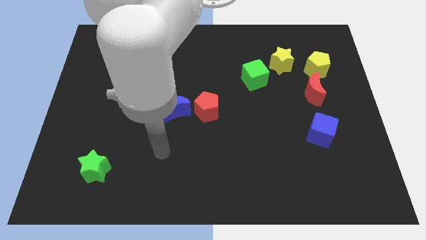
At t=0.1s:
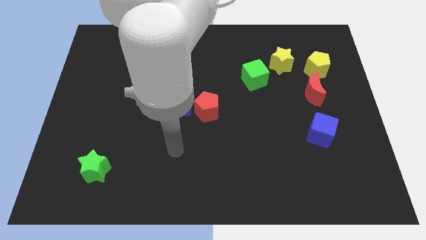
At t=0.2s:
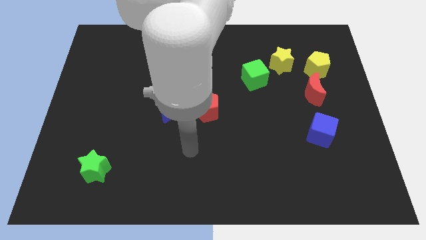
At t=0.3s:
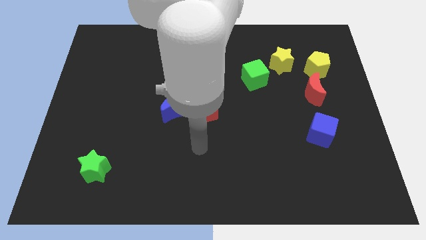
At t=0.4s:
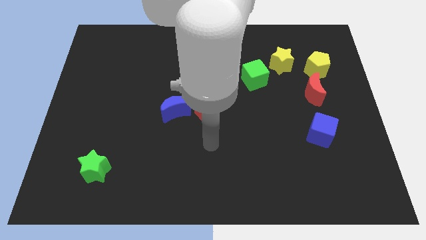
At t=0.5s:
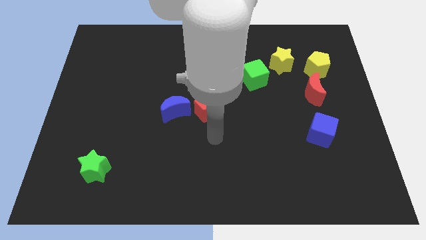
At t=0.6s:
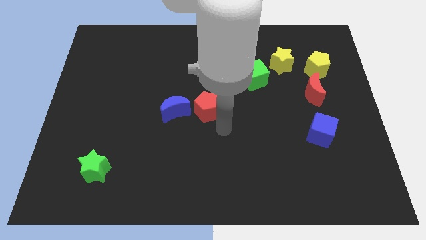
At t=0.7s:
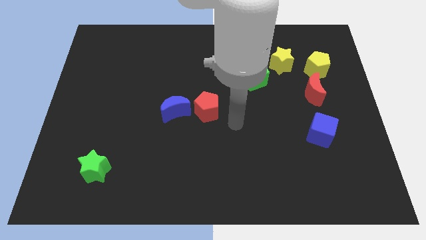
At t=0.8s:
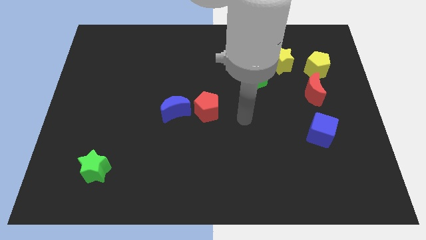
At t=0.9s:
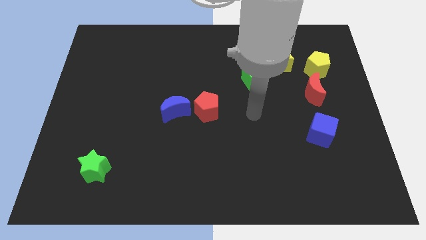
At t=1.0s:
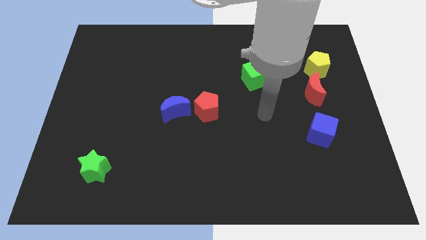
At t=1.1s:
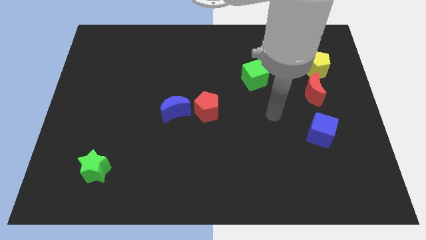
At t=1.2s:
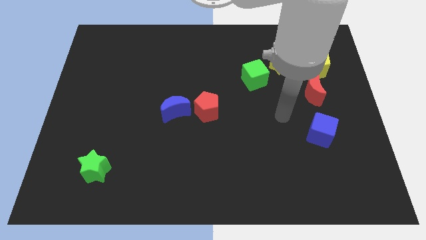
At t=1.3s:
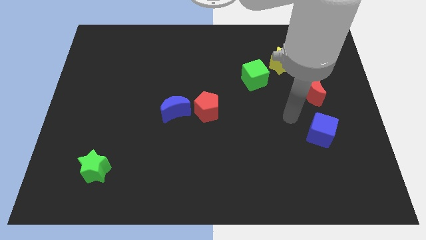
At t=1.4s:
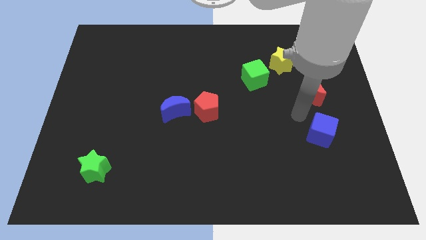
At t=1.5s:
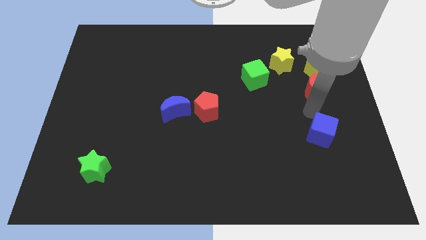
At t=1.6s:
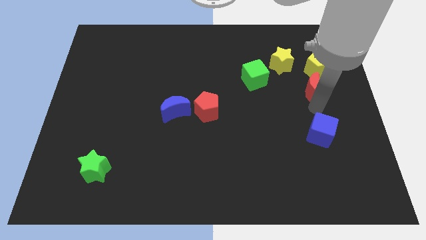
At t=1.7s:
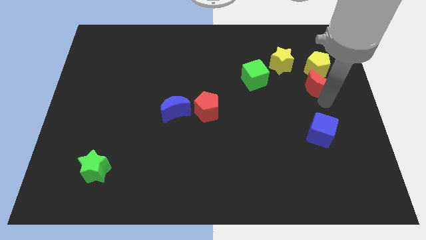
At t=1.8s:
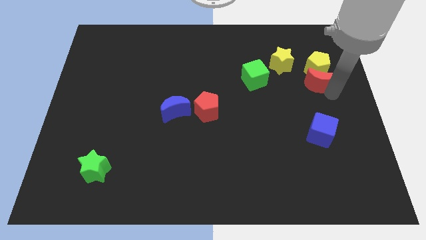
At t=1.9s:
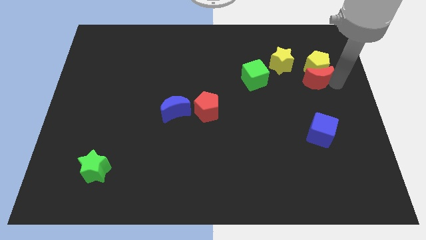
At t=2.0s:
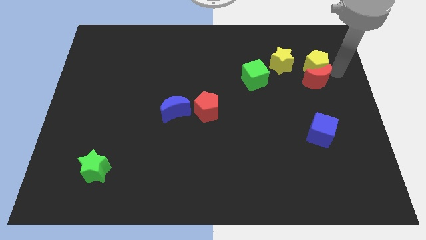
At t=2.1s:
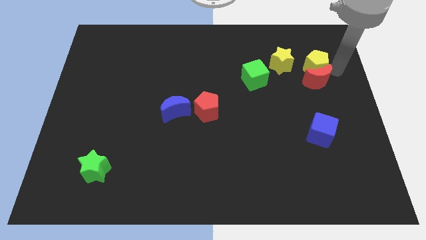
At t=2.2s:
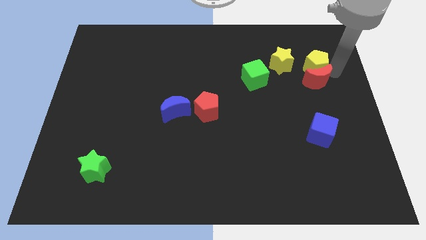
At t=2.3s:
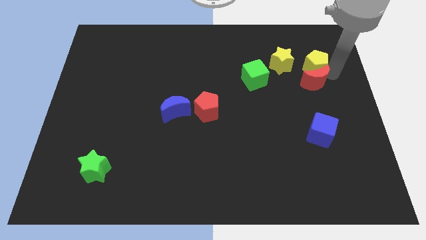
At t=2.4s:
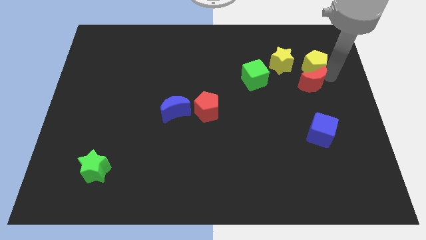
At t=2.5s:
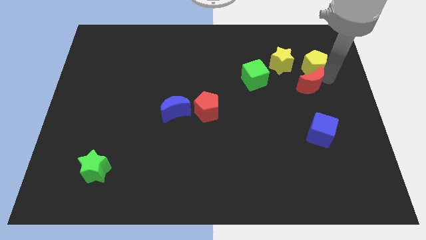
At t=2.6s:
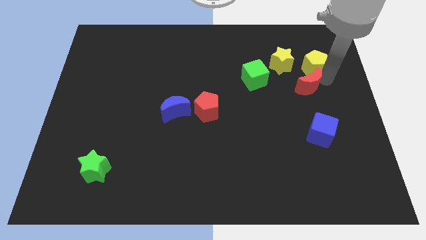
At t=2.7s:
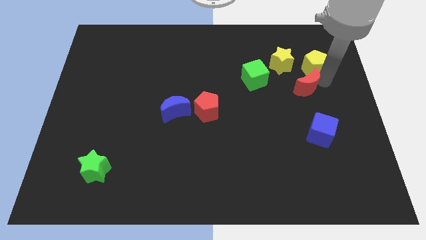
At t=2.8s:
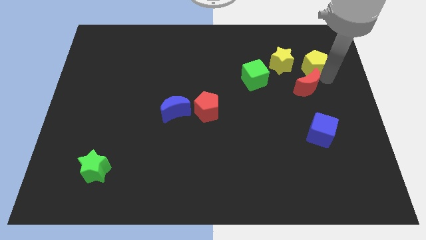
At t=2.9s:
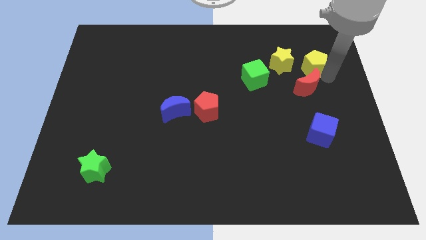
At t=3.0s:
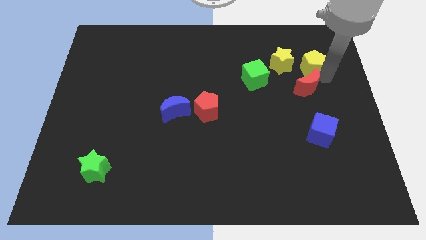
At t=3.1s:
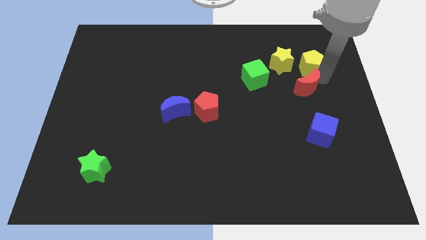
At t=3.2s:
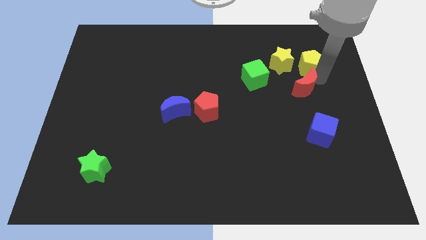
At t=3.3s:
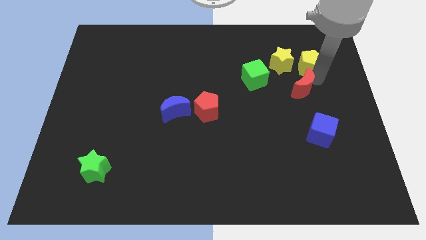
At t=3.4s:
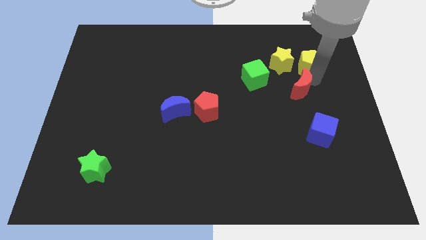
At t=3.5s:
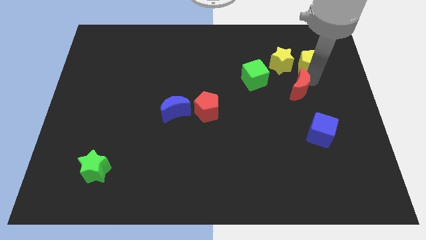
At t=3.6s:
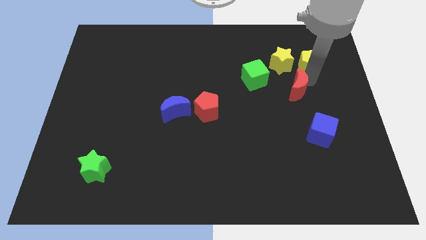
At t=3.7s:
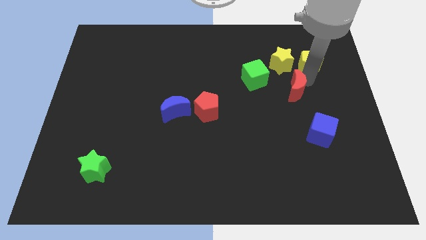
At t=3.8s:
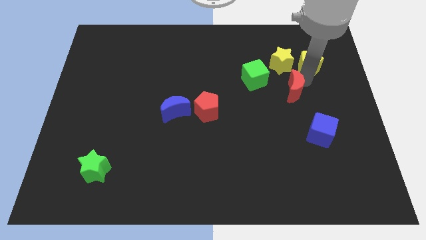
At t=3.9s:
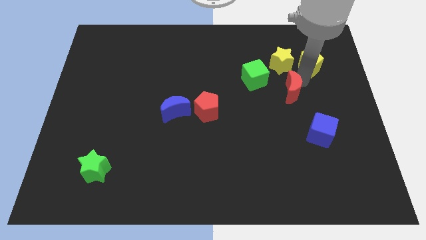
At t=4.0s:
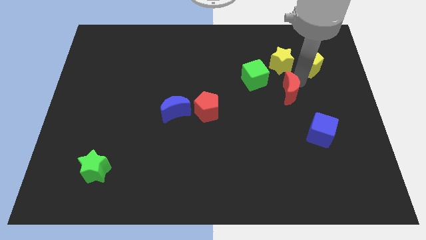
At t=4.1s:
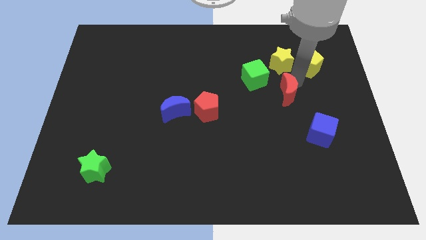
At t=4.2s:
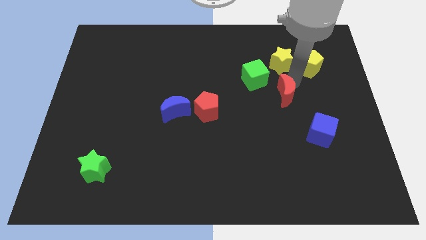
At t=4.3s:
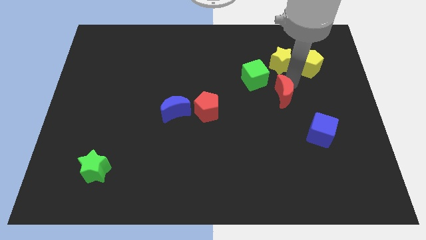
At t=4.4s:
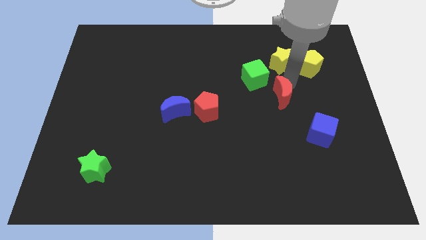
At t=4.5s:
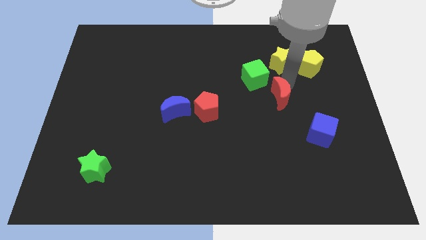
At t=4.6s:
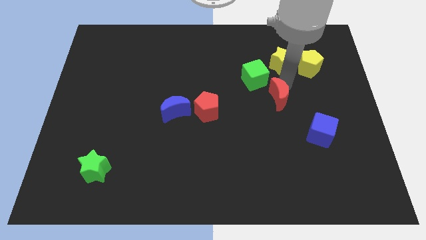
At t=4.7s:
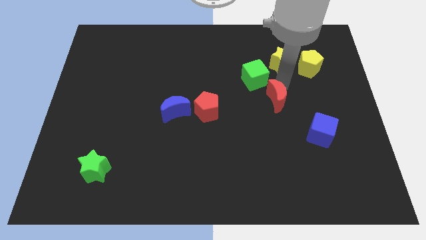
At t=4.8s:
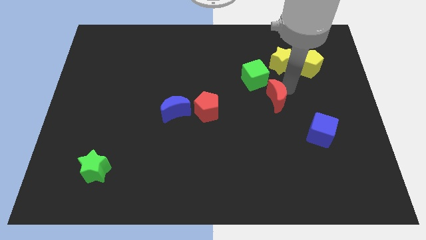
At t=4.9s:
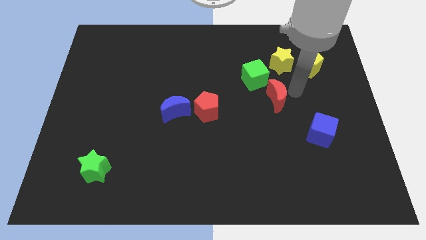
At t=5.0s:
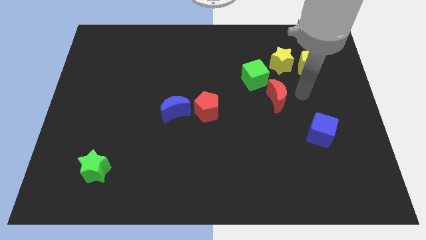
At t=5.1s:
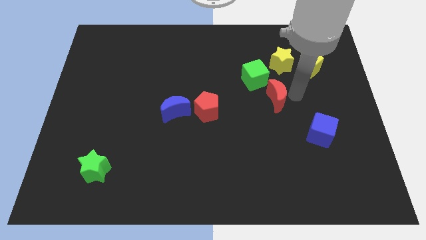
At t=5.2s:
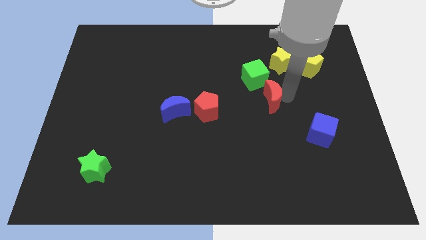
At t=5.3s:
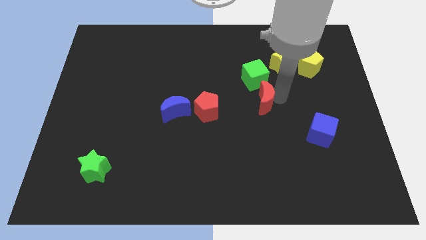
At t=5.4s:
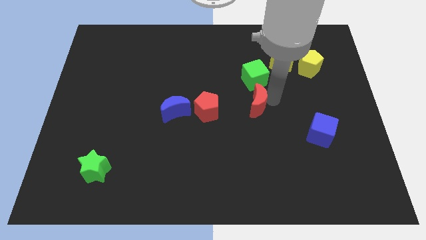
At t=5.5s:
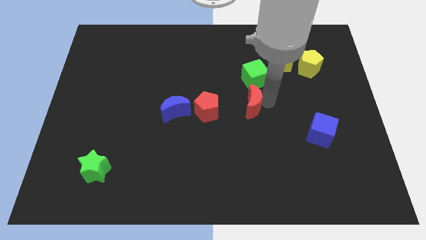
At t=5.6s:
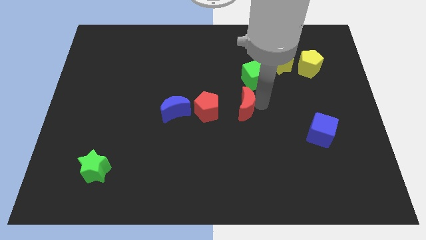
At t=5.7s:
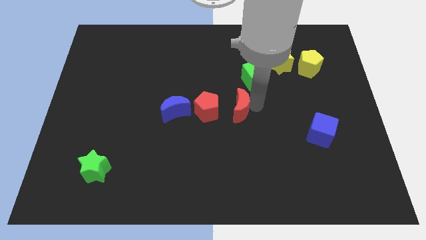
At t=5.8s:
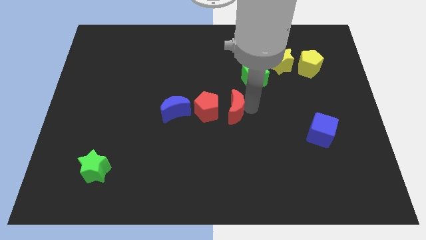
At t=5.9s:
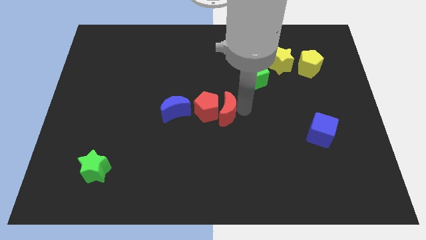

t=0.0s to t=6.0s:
slide the red moon close to the red pentagon

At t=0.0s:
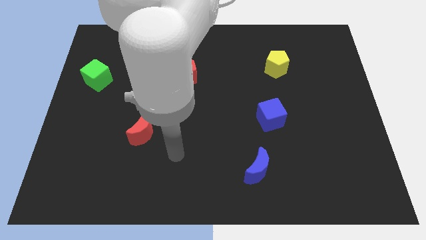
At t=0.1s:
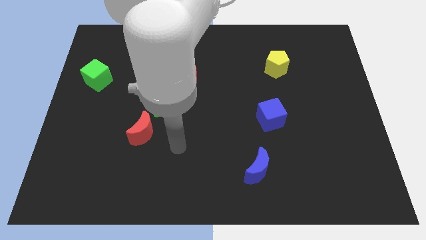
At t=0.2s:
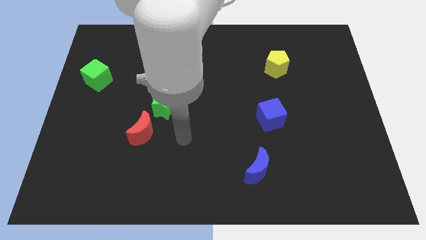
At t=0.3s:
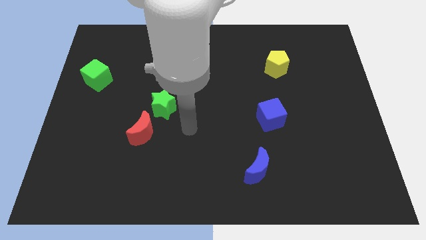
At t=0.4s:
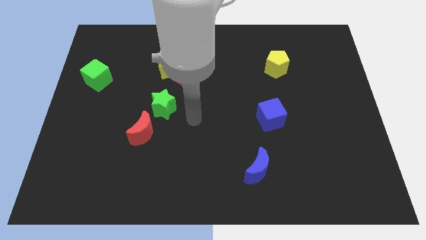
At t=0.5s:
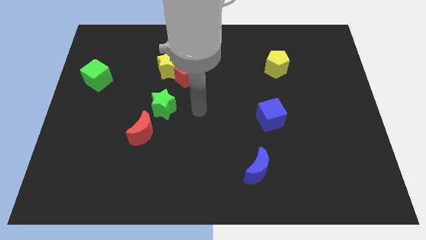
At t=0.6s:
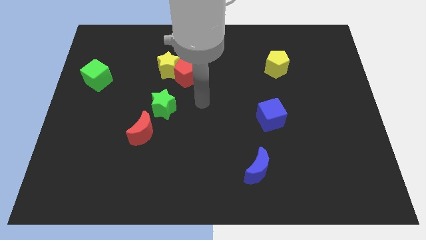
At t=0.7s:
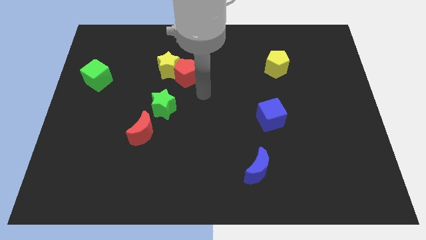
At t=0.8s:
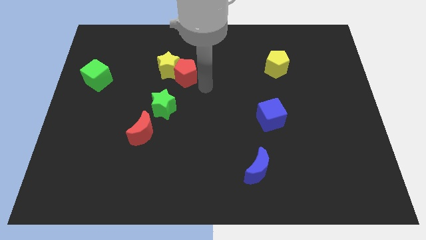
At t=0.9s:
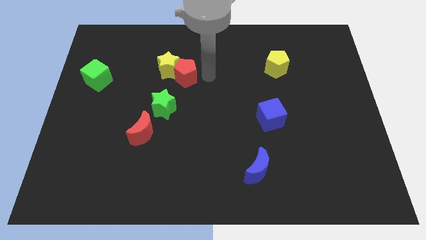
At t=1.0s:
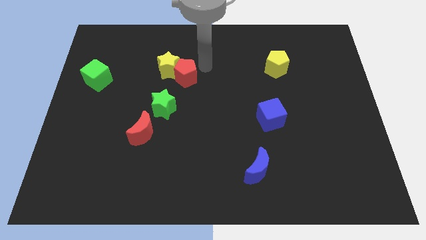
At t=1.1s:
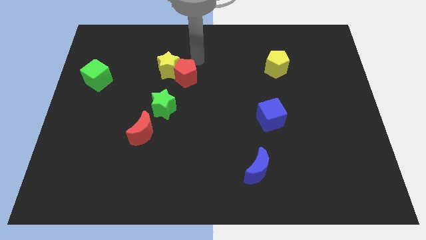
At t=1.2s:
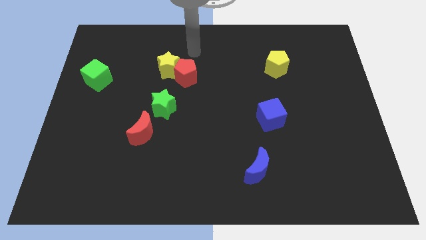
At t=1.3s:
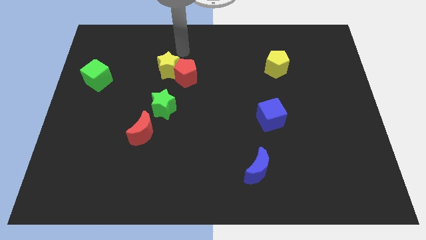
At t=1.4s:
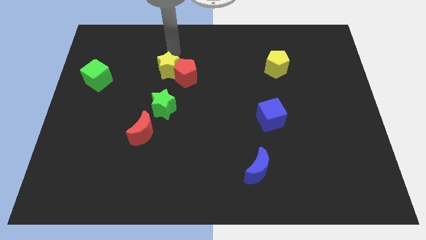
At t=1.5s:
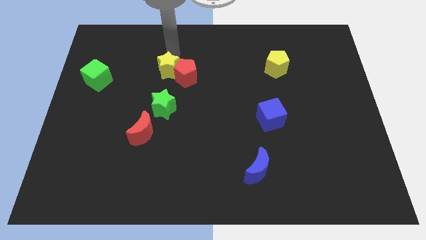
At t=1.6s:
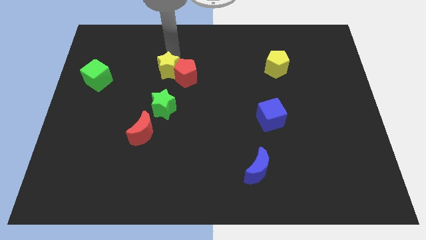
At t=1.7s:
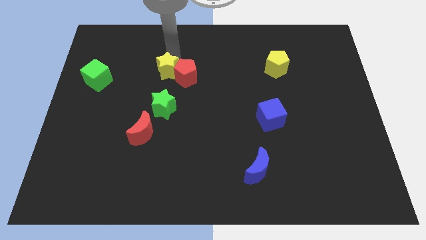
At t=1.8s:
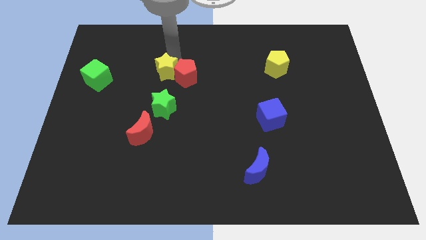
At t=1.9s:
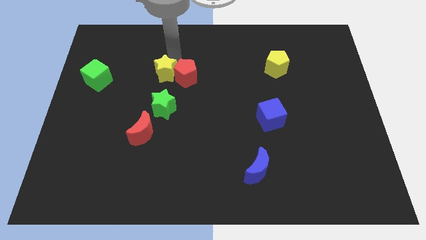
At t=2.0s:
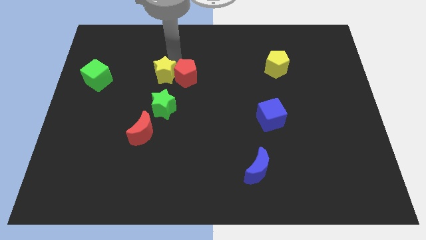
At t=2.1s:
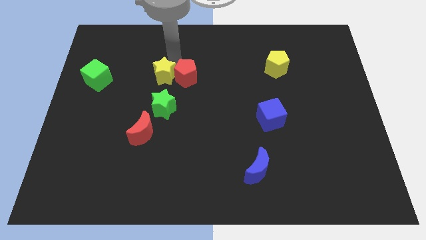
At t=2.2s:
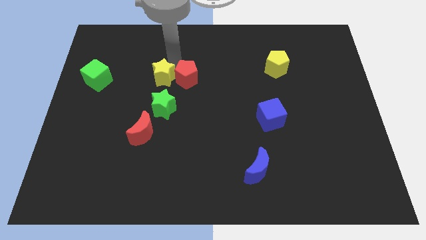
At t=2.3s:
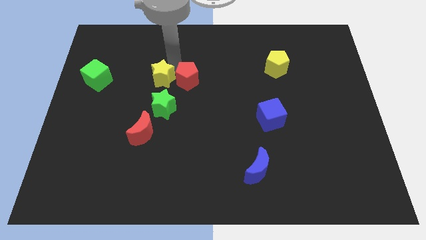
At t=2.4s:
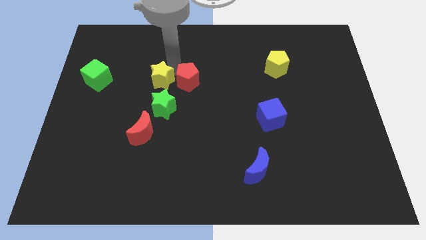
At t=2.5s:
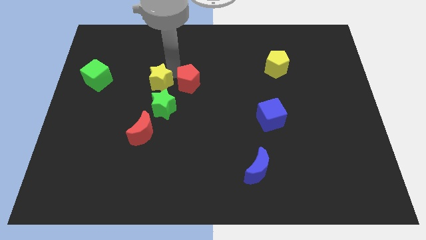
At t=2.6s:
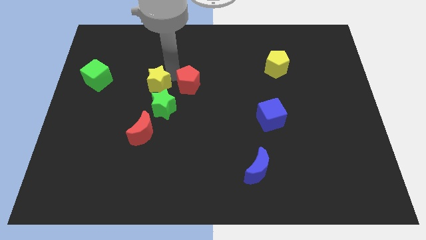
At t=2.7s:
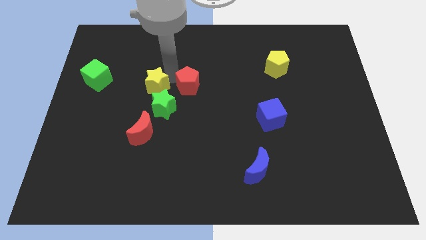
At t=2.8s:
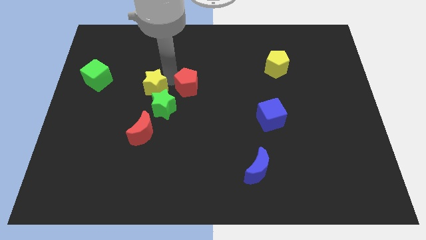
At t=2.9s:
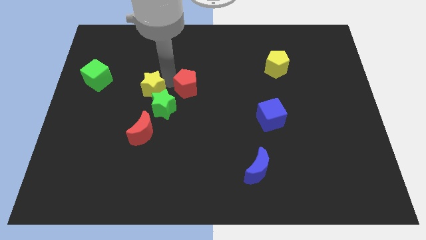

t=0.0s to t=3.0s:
slide the yellow star to the green star
